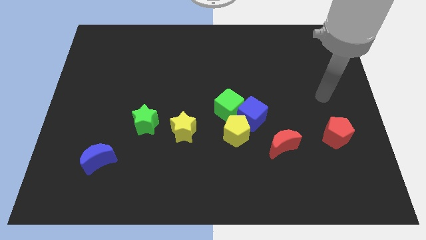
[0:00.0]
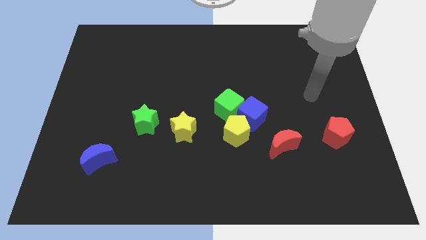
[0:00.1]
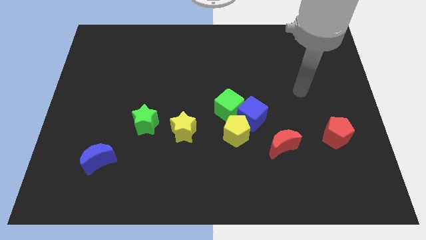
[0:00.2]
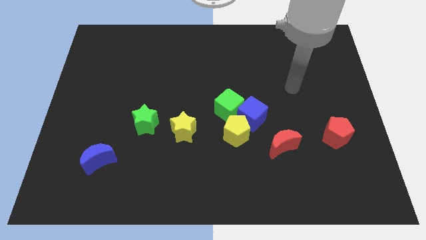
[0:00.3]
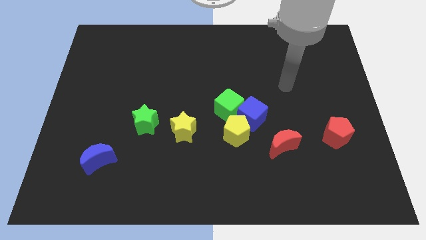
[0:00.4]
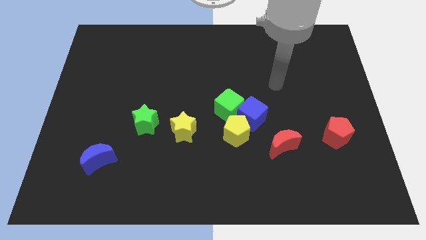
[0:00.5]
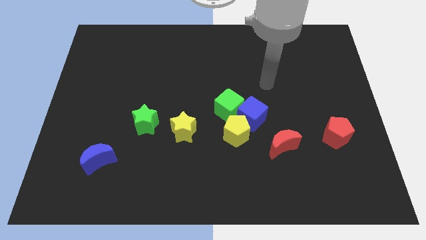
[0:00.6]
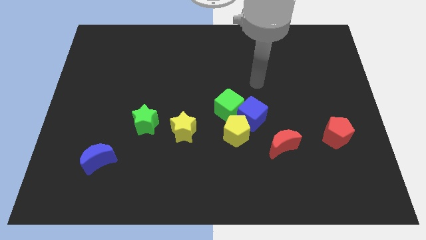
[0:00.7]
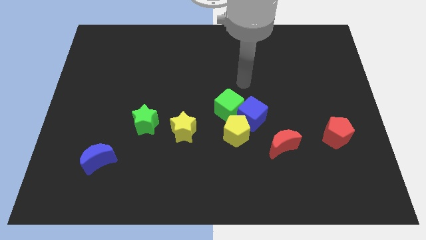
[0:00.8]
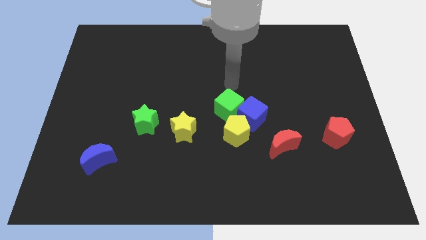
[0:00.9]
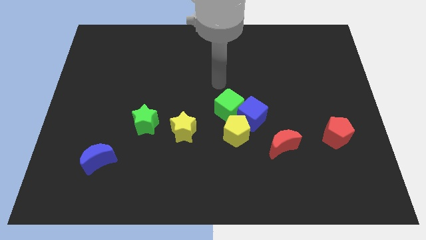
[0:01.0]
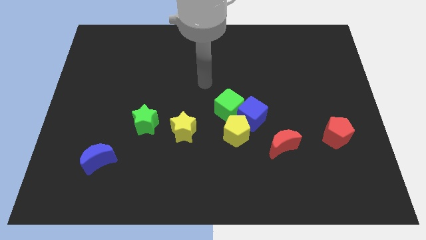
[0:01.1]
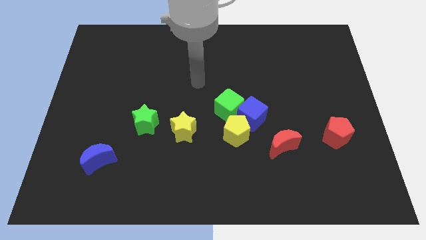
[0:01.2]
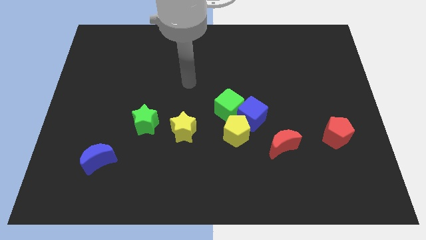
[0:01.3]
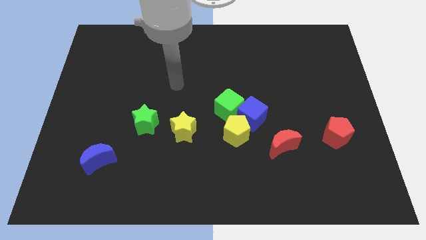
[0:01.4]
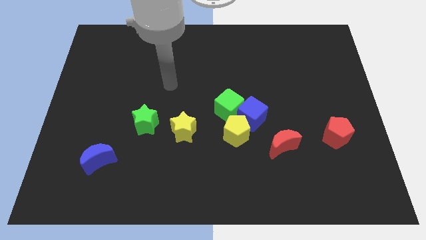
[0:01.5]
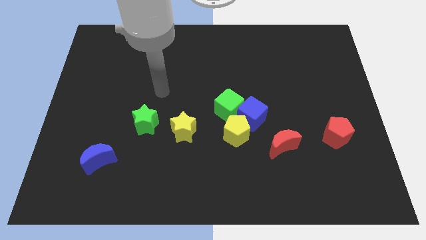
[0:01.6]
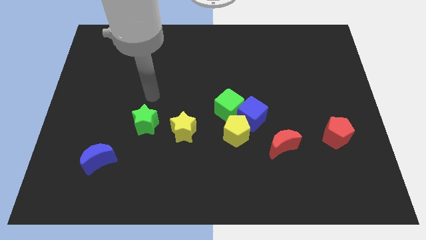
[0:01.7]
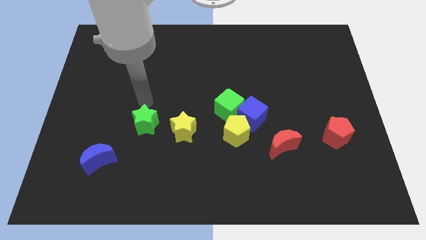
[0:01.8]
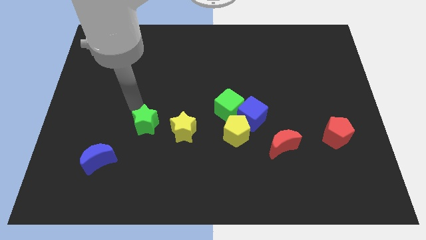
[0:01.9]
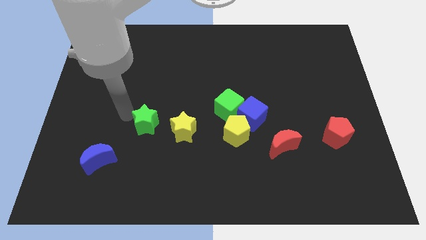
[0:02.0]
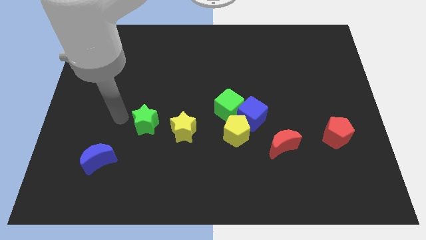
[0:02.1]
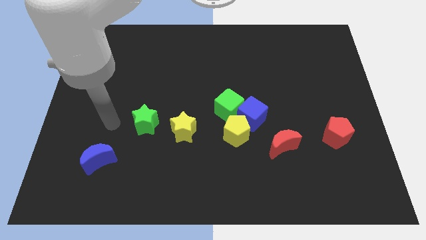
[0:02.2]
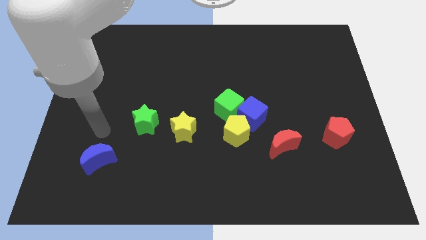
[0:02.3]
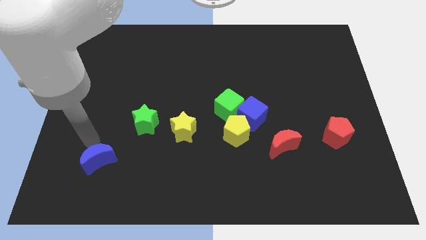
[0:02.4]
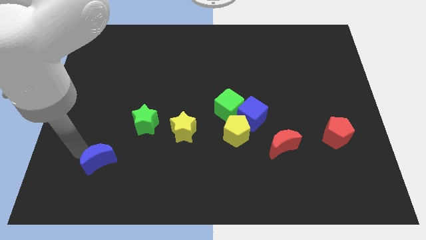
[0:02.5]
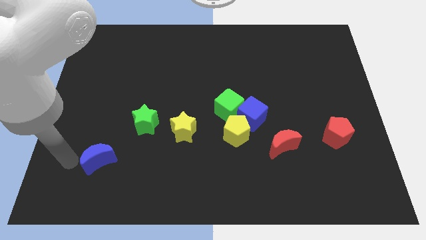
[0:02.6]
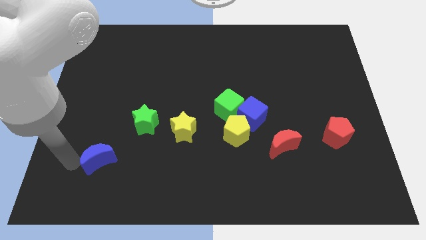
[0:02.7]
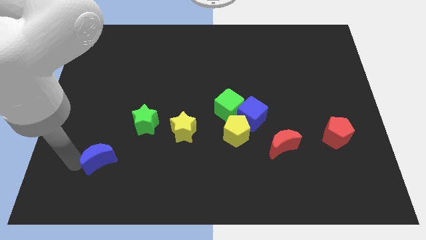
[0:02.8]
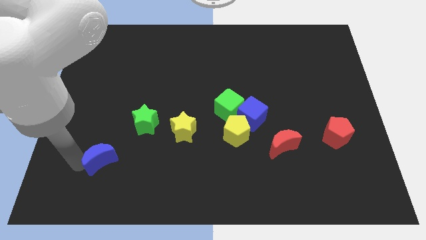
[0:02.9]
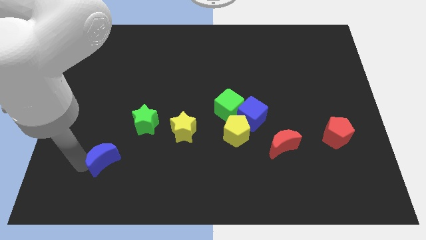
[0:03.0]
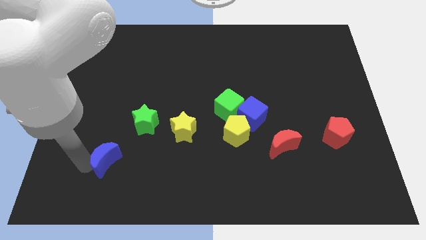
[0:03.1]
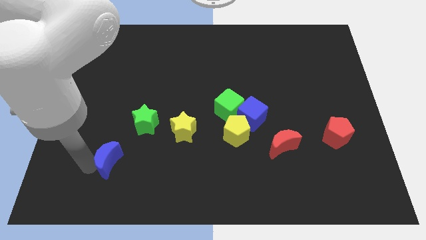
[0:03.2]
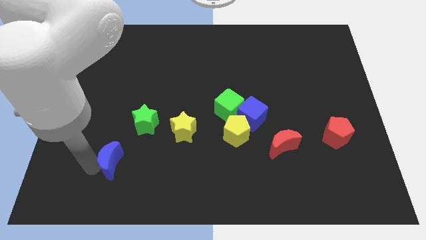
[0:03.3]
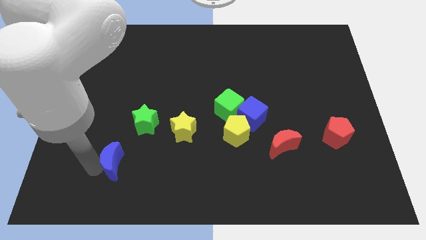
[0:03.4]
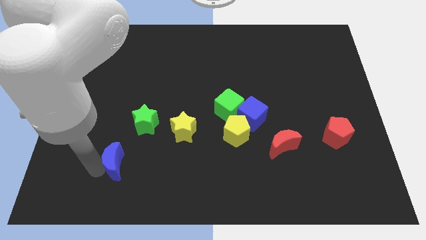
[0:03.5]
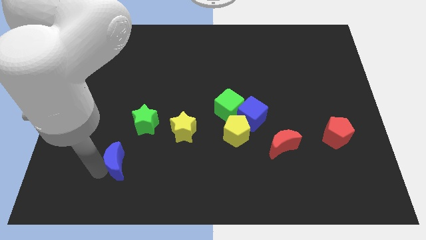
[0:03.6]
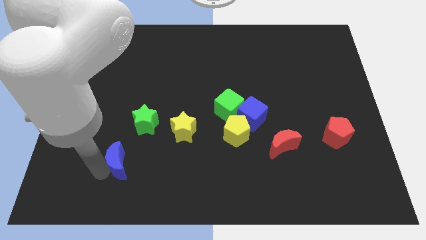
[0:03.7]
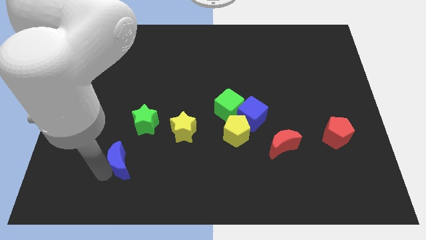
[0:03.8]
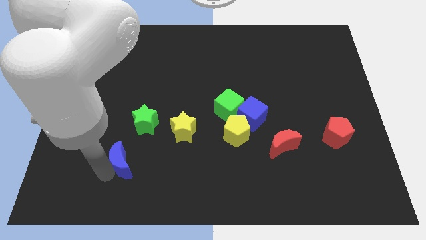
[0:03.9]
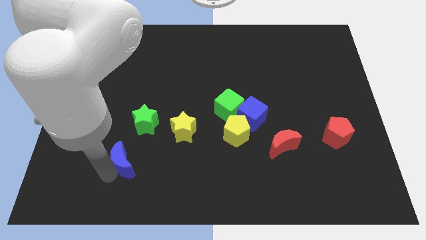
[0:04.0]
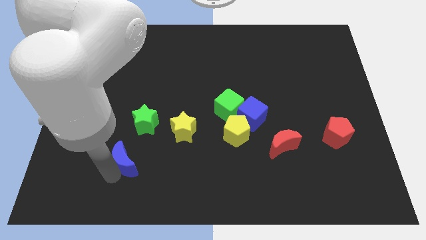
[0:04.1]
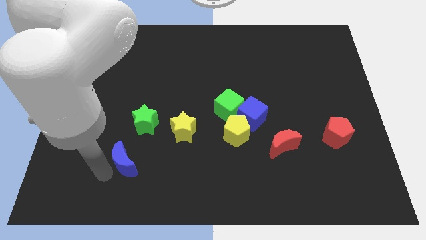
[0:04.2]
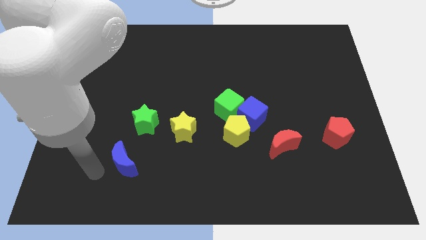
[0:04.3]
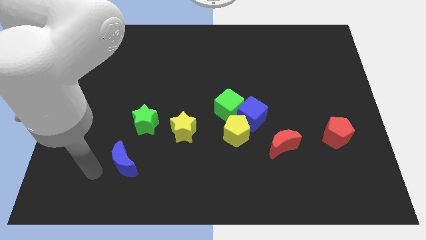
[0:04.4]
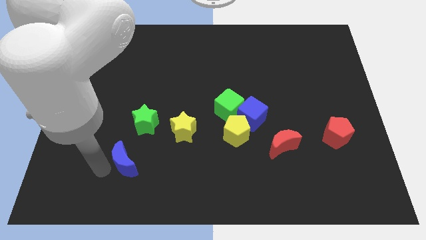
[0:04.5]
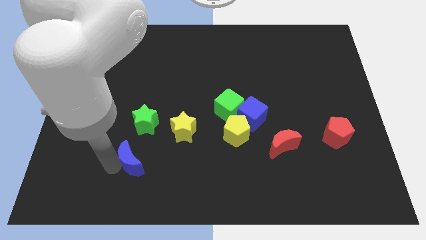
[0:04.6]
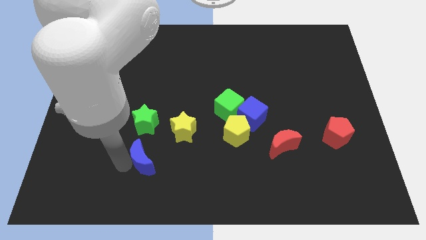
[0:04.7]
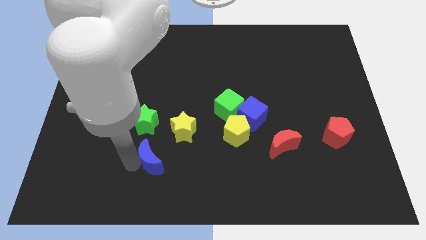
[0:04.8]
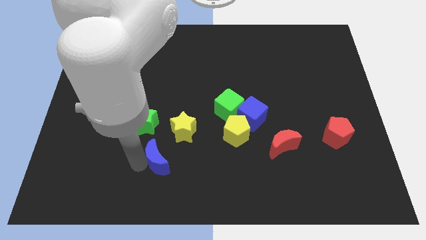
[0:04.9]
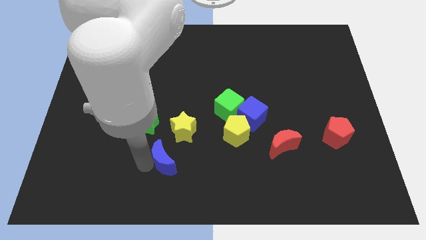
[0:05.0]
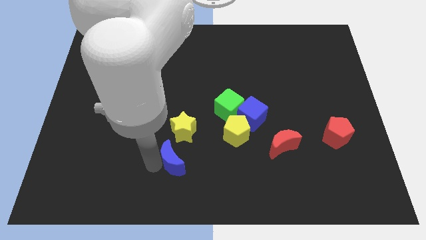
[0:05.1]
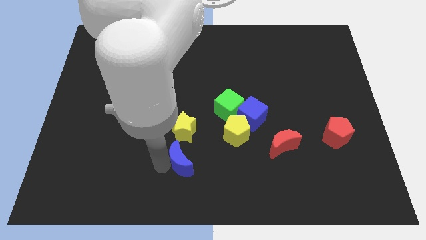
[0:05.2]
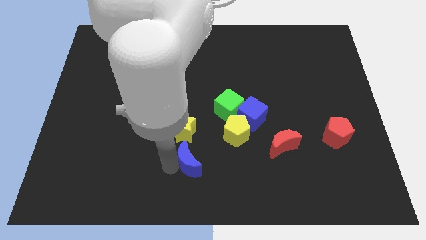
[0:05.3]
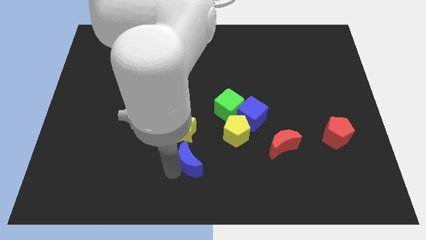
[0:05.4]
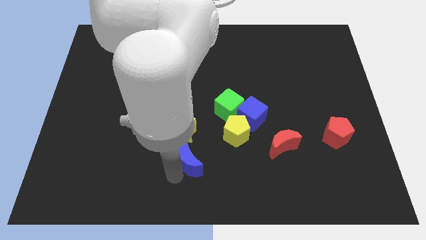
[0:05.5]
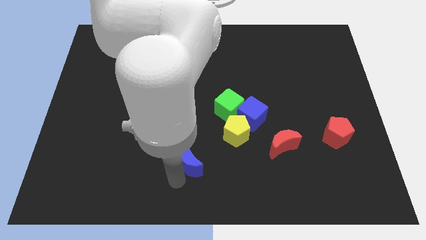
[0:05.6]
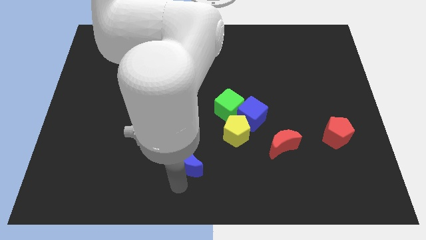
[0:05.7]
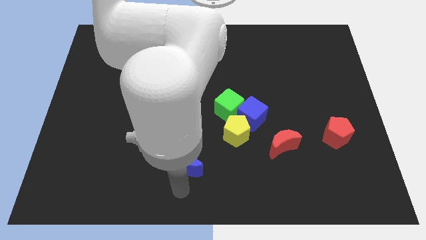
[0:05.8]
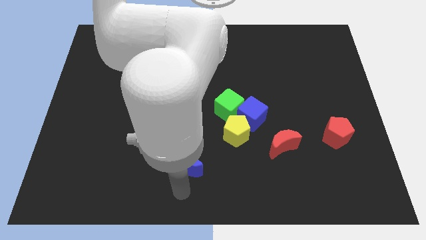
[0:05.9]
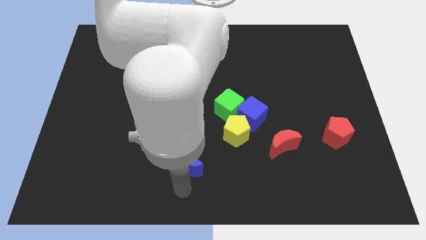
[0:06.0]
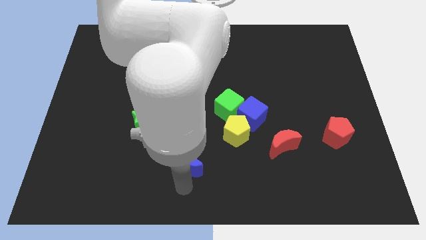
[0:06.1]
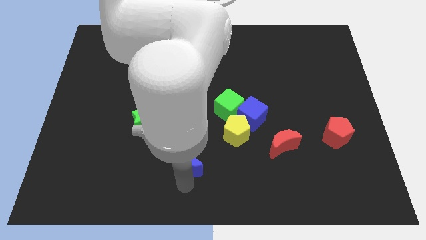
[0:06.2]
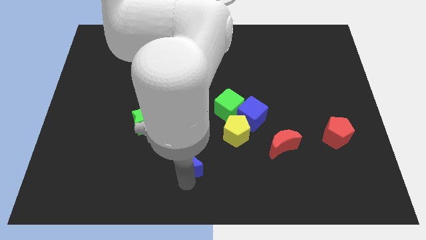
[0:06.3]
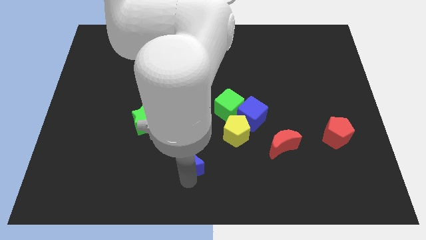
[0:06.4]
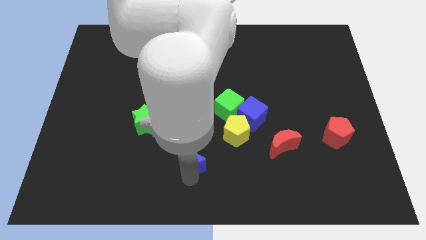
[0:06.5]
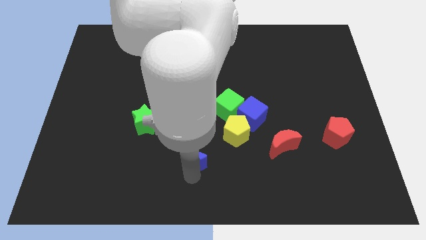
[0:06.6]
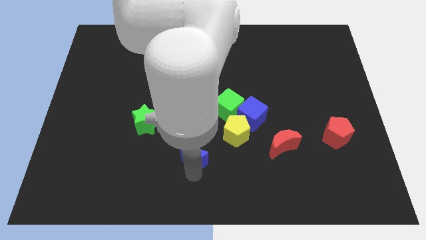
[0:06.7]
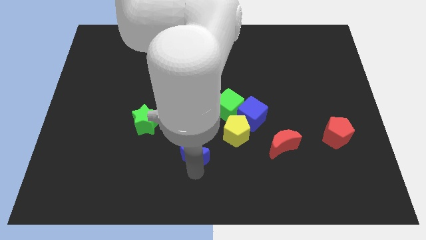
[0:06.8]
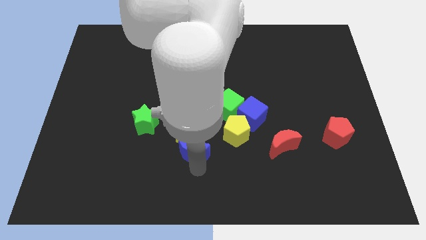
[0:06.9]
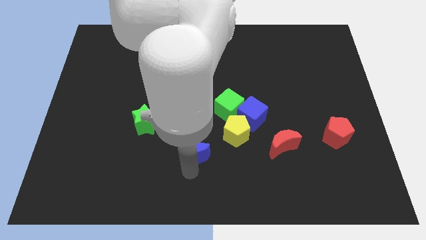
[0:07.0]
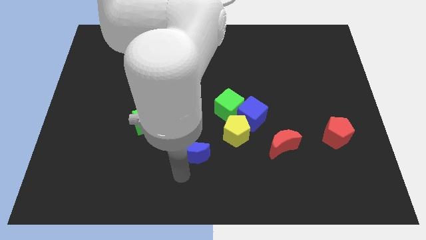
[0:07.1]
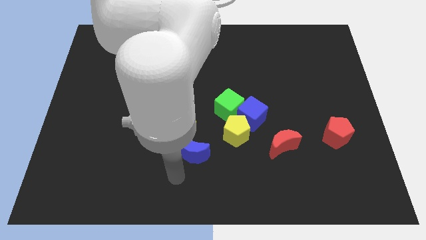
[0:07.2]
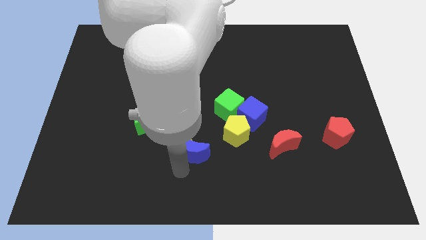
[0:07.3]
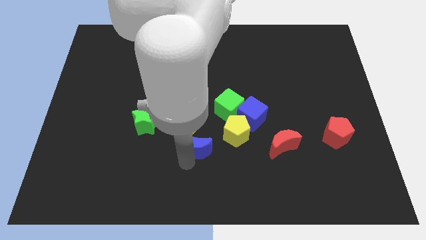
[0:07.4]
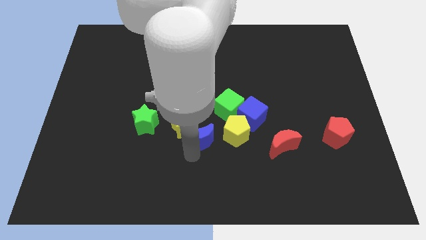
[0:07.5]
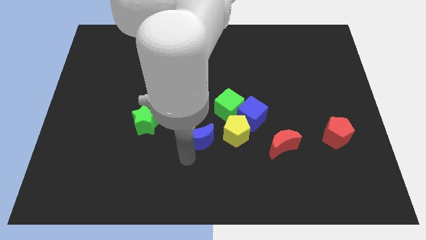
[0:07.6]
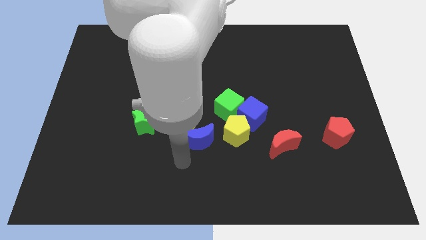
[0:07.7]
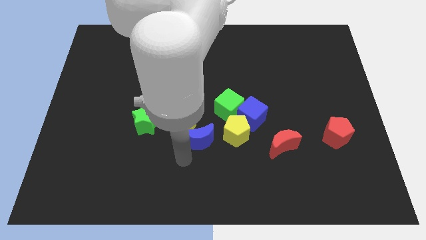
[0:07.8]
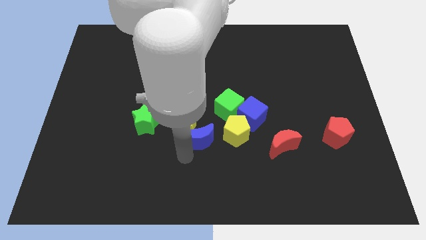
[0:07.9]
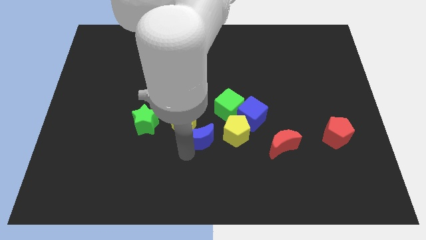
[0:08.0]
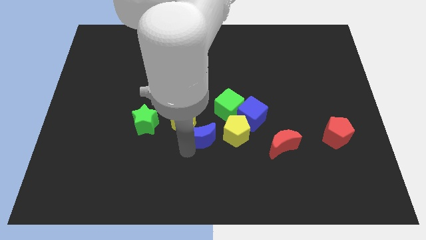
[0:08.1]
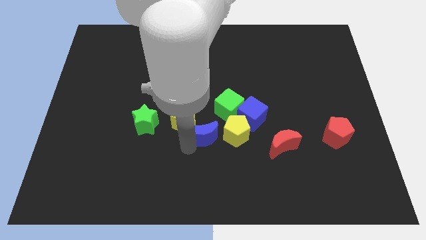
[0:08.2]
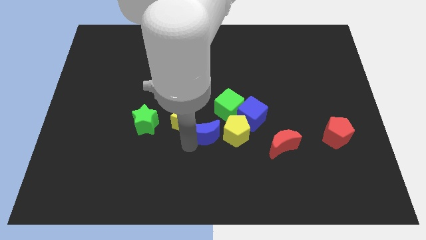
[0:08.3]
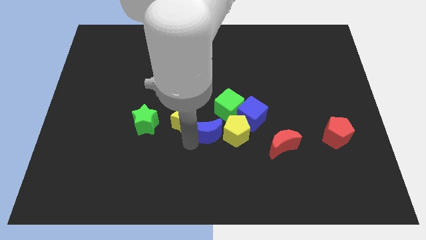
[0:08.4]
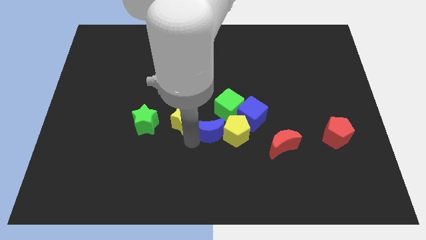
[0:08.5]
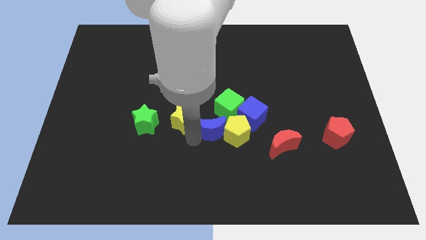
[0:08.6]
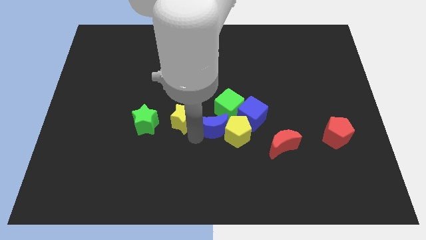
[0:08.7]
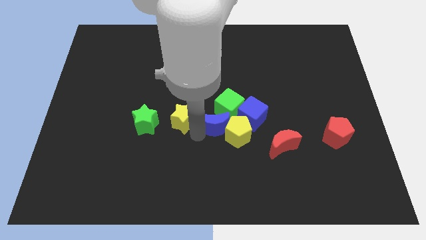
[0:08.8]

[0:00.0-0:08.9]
slide the blue moon towards the green cube
